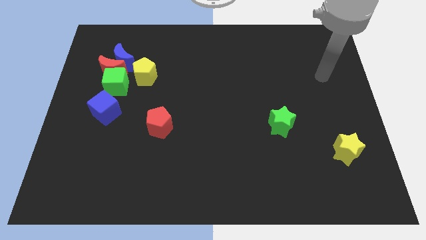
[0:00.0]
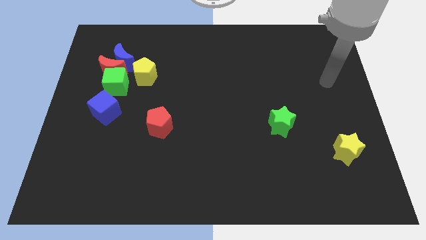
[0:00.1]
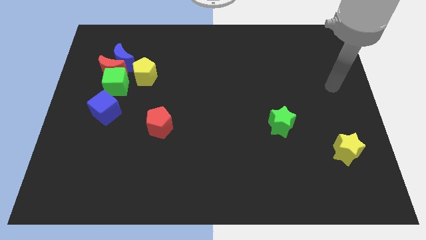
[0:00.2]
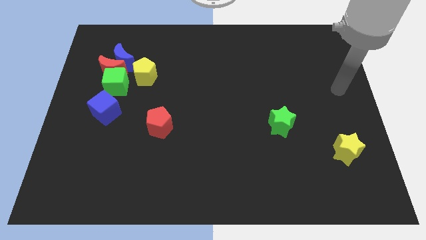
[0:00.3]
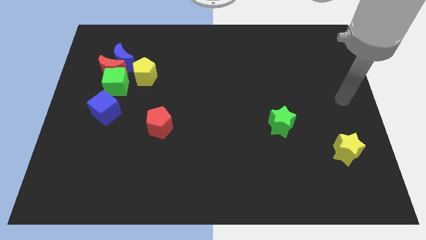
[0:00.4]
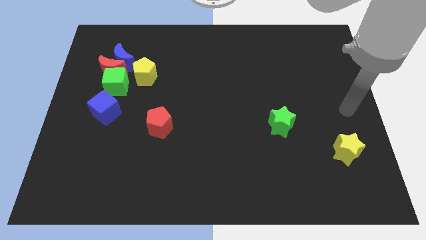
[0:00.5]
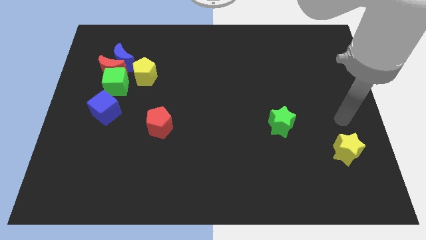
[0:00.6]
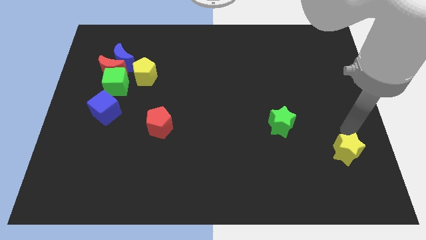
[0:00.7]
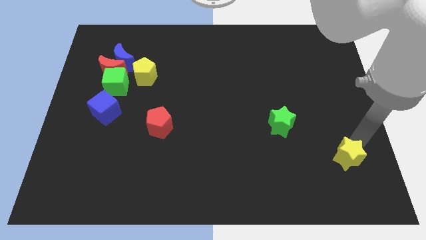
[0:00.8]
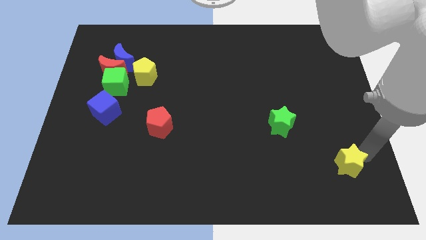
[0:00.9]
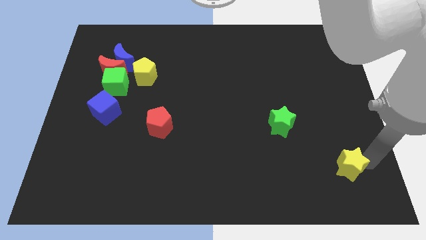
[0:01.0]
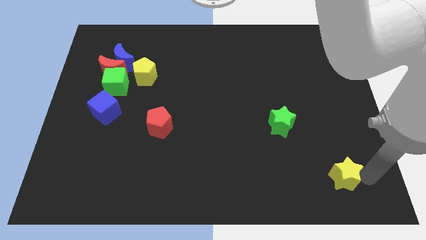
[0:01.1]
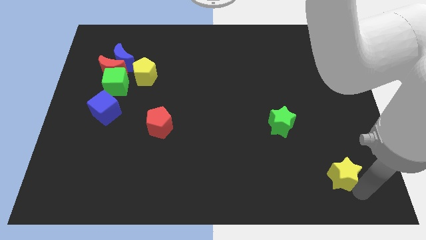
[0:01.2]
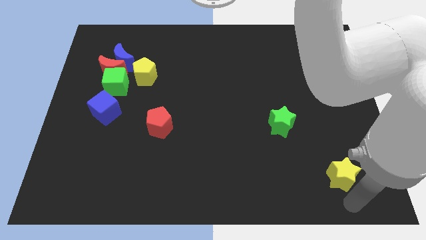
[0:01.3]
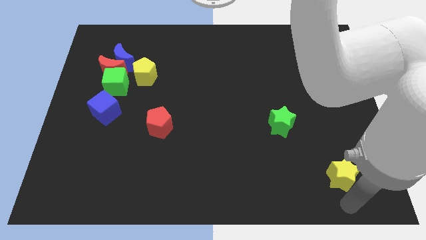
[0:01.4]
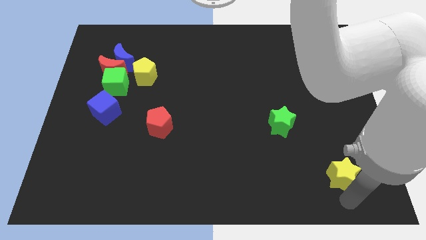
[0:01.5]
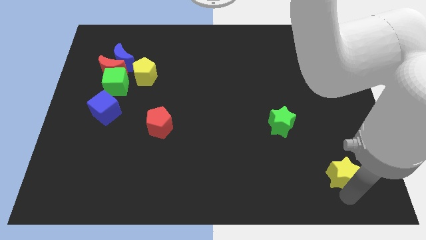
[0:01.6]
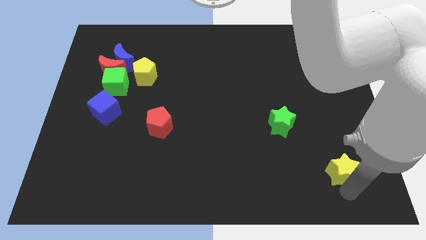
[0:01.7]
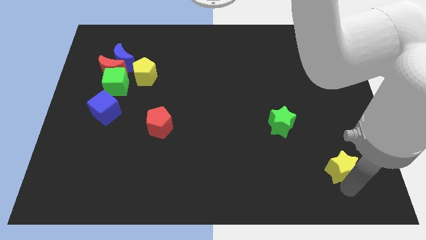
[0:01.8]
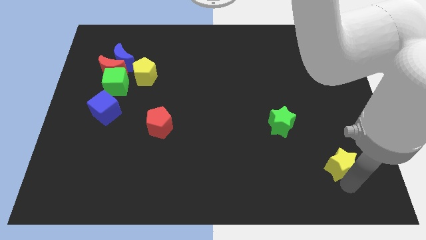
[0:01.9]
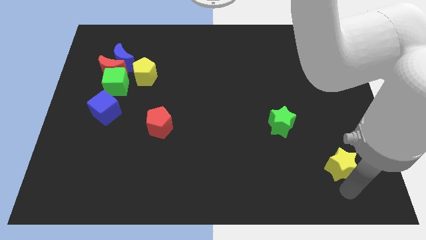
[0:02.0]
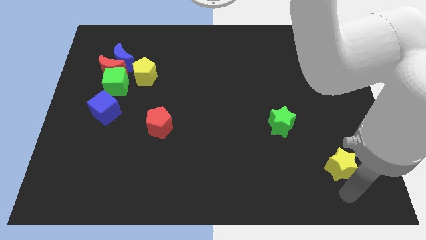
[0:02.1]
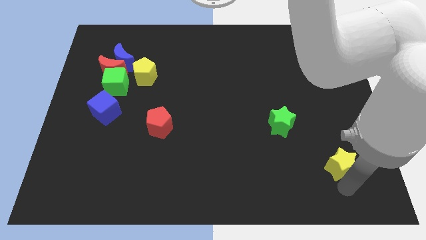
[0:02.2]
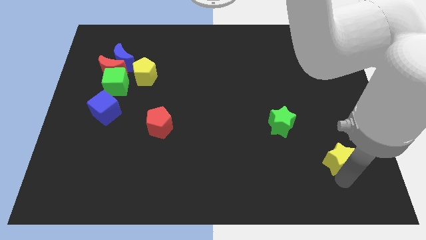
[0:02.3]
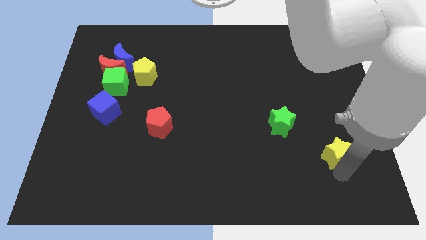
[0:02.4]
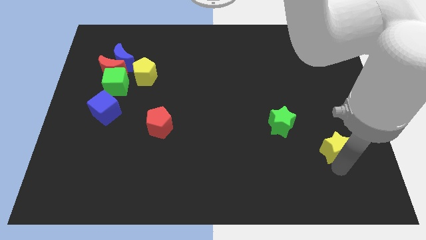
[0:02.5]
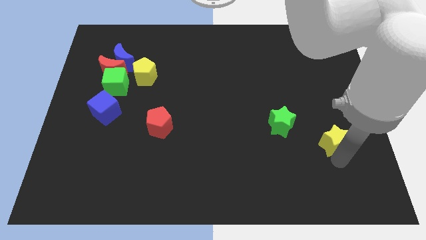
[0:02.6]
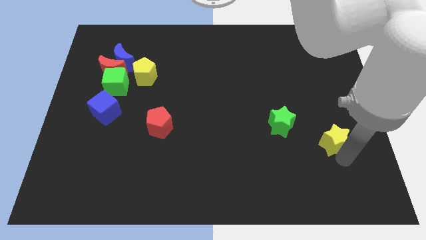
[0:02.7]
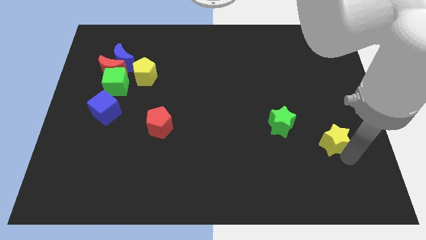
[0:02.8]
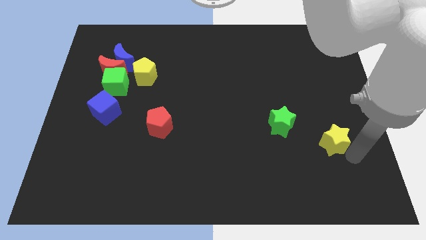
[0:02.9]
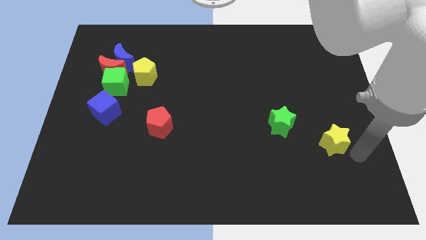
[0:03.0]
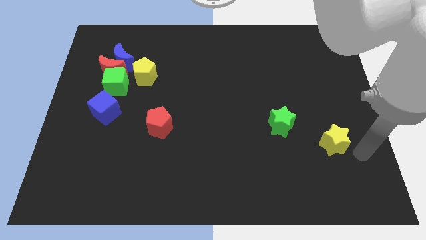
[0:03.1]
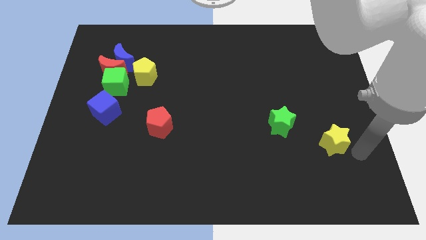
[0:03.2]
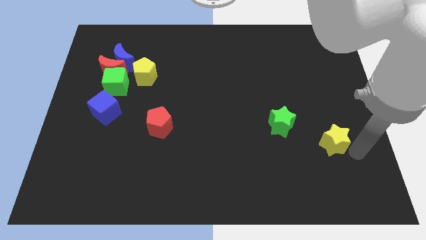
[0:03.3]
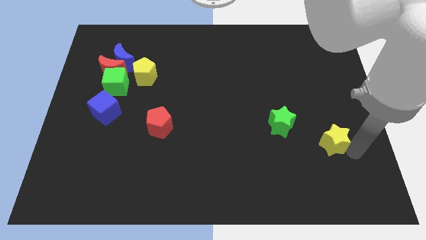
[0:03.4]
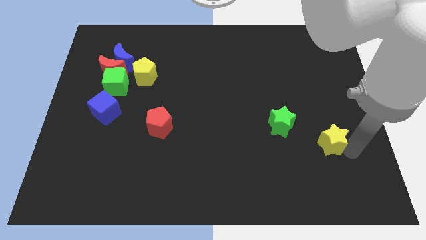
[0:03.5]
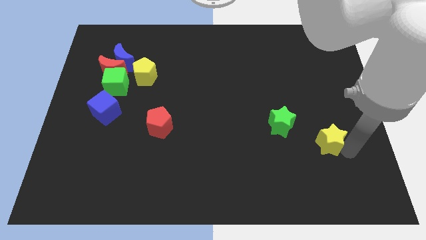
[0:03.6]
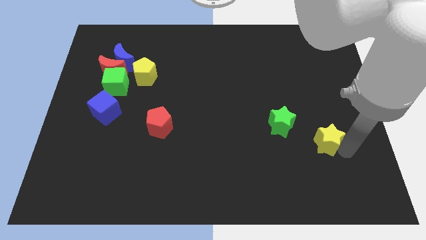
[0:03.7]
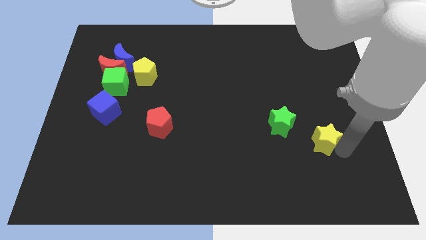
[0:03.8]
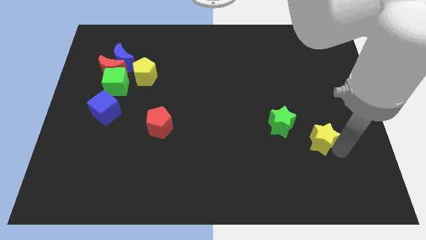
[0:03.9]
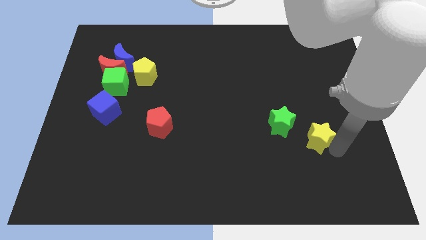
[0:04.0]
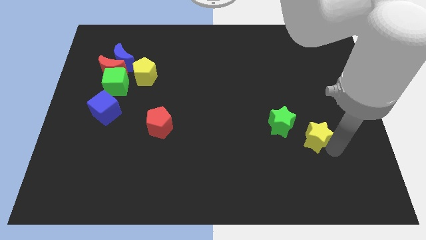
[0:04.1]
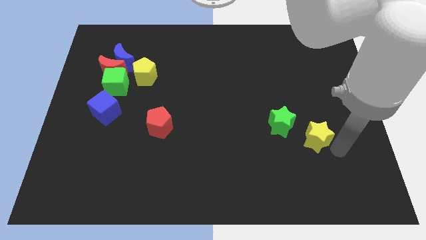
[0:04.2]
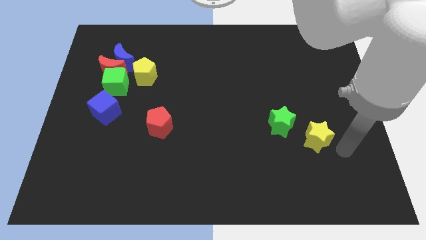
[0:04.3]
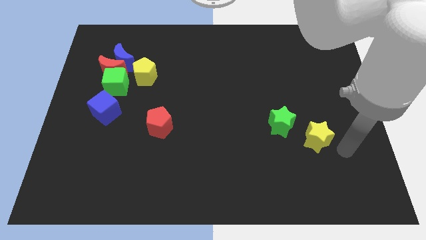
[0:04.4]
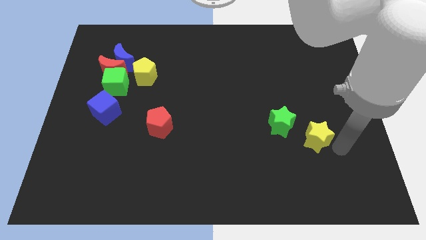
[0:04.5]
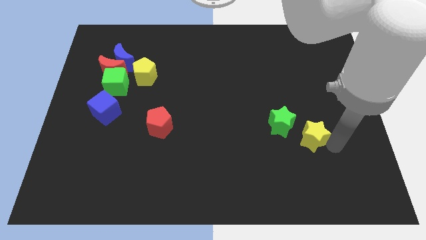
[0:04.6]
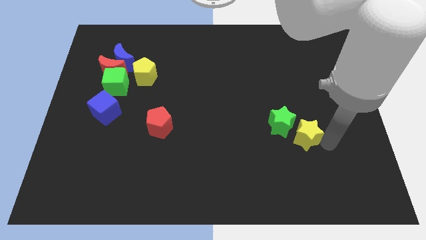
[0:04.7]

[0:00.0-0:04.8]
move the yellow star towards the green star

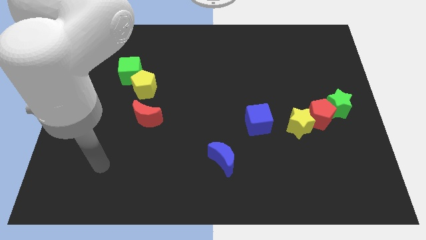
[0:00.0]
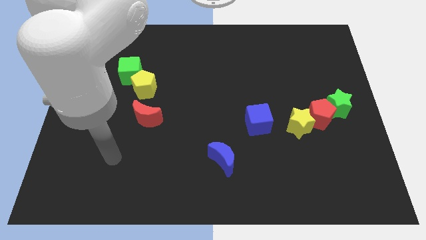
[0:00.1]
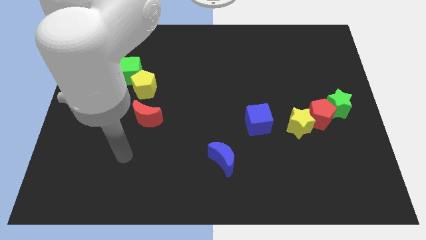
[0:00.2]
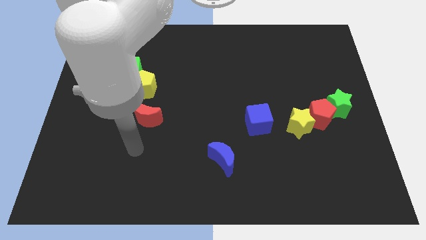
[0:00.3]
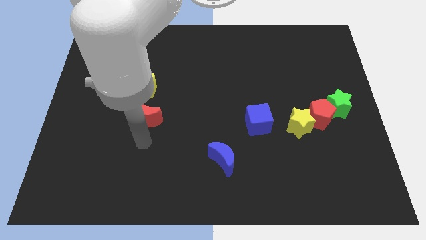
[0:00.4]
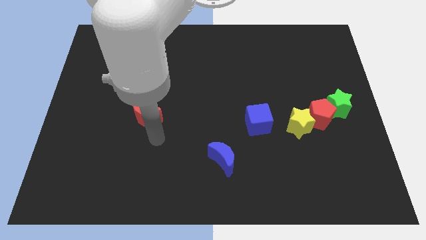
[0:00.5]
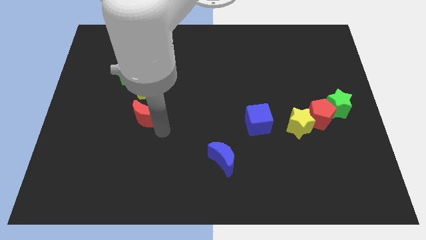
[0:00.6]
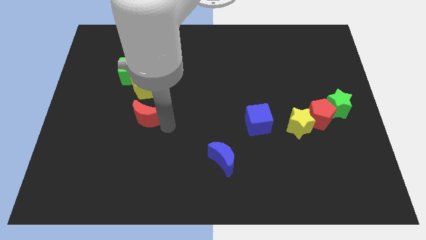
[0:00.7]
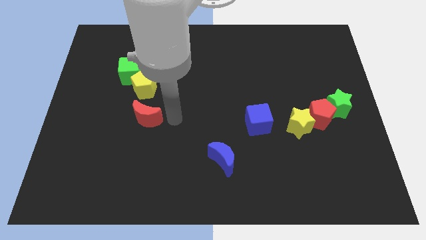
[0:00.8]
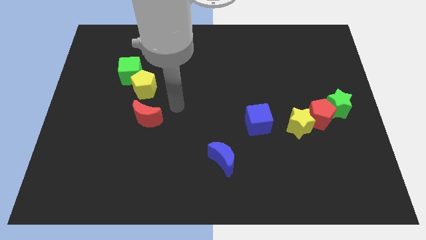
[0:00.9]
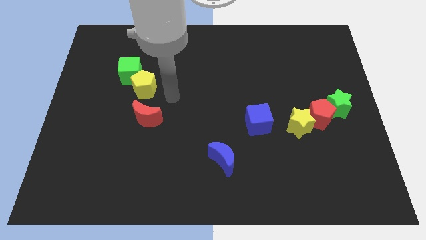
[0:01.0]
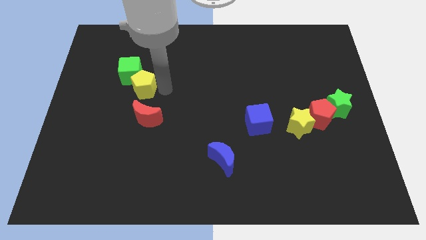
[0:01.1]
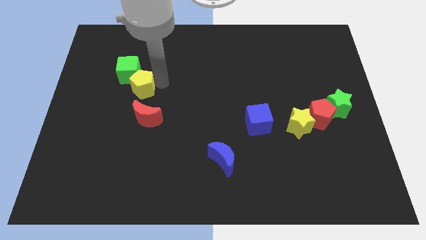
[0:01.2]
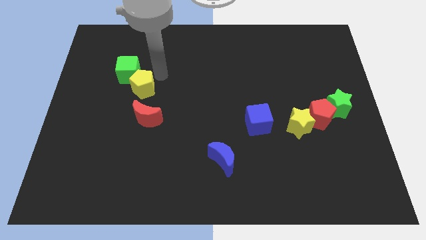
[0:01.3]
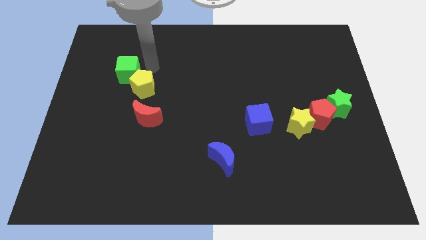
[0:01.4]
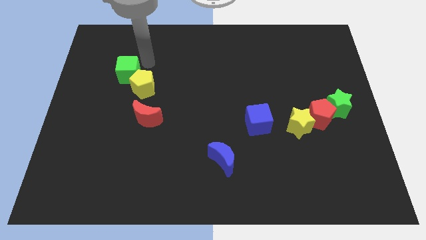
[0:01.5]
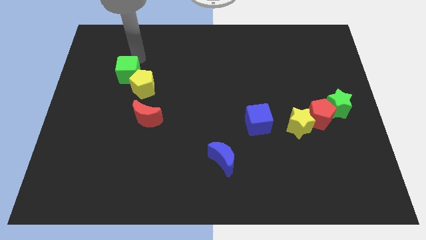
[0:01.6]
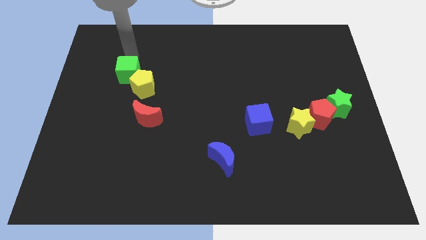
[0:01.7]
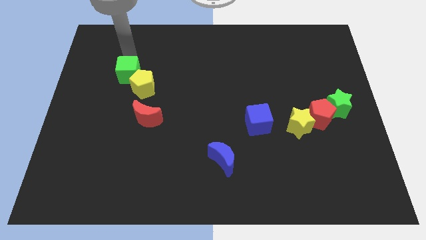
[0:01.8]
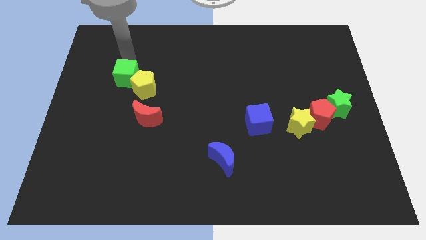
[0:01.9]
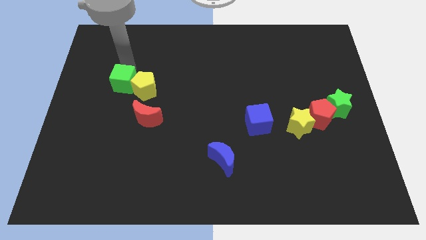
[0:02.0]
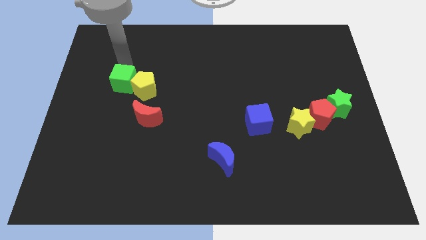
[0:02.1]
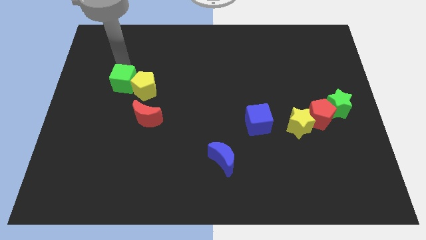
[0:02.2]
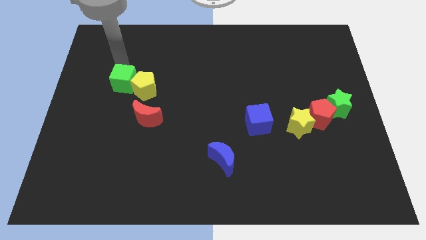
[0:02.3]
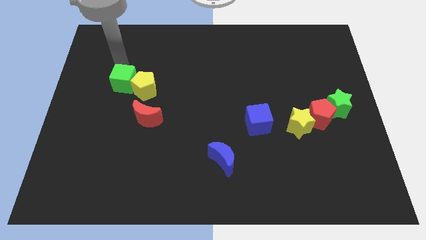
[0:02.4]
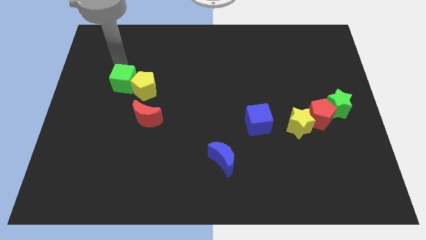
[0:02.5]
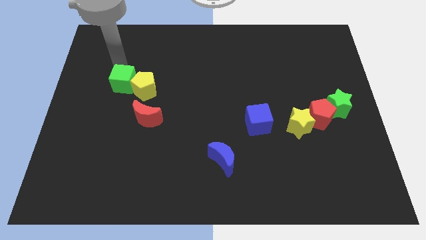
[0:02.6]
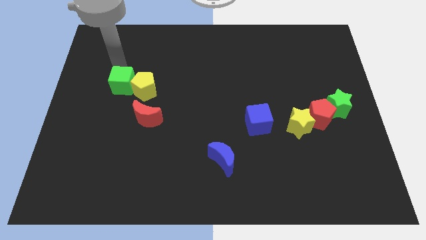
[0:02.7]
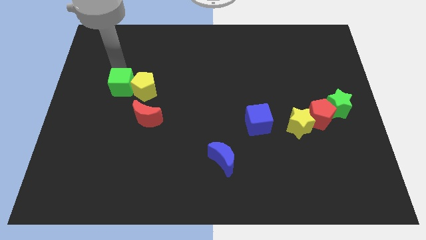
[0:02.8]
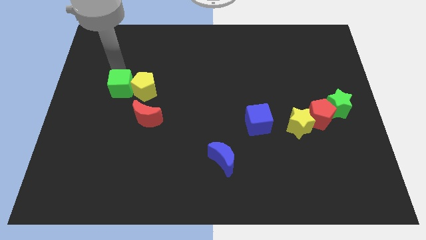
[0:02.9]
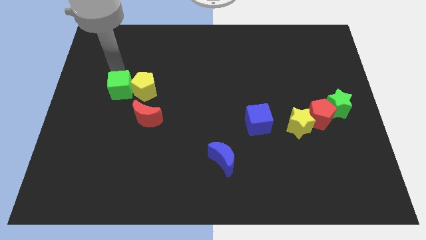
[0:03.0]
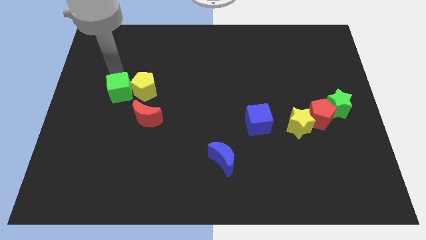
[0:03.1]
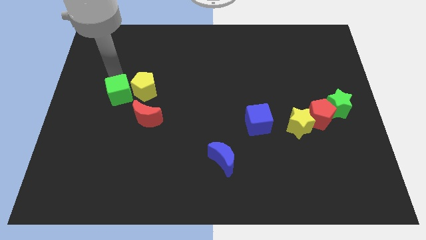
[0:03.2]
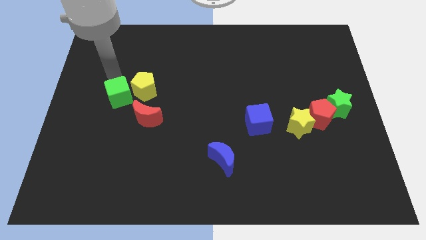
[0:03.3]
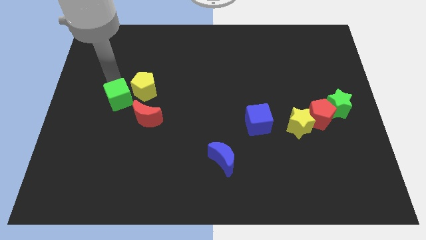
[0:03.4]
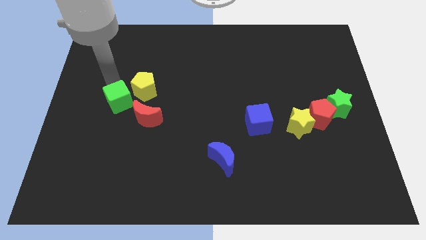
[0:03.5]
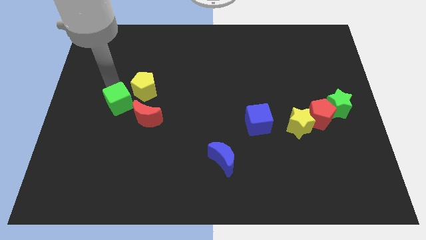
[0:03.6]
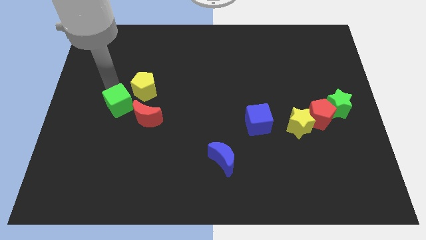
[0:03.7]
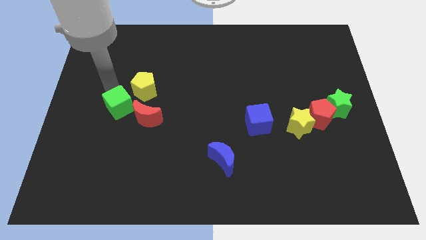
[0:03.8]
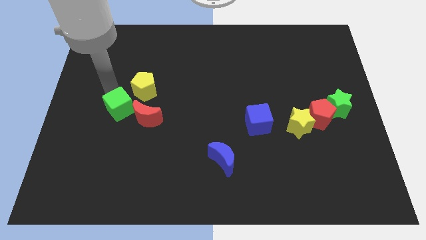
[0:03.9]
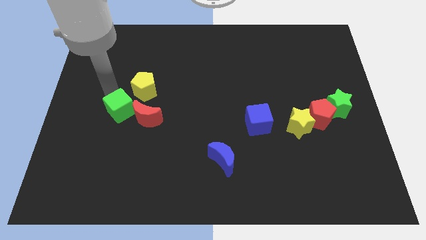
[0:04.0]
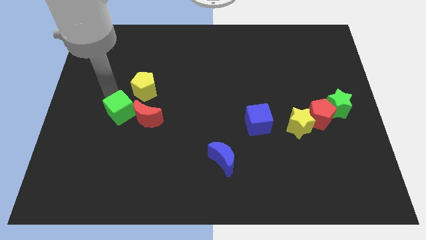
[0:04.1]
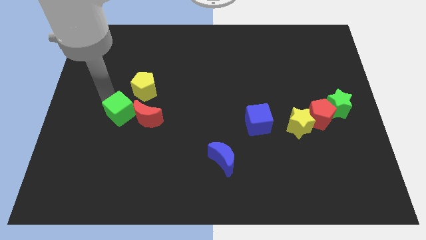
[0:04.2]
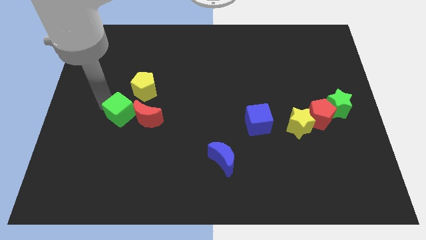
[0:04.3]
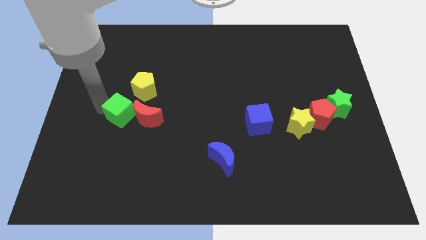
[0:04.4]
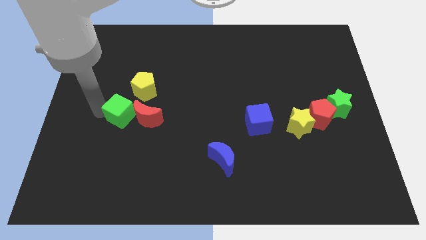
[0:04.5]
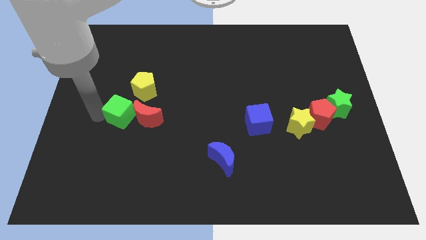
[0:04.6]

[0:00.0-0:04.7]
push the green cube towards the red moon
